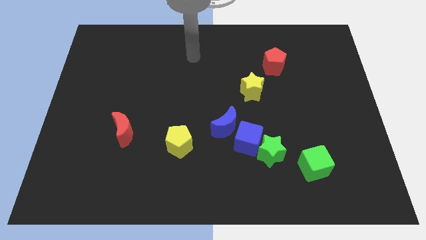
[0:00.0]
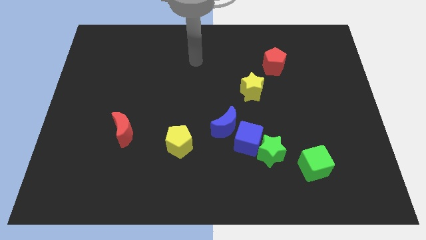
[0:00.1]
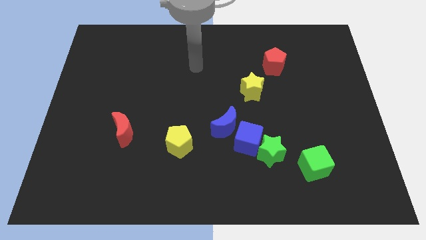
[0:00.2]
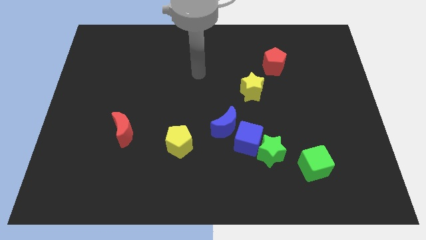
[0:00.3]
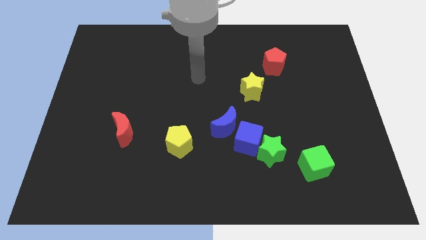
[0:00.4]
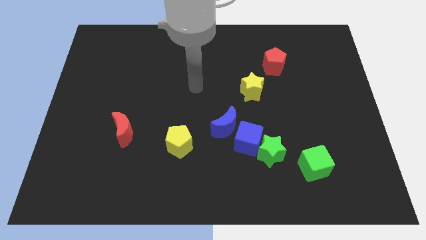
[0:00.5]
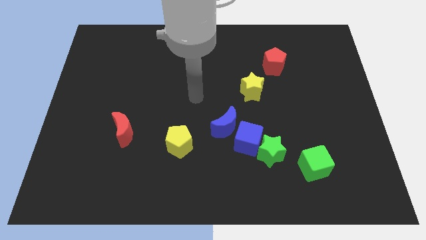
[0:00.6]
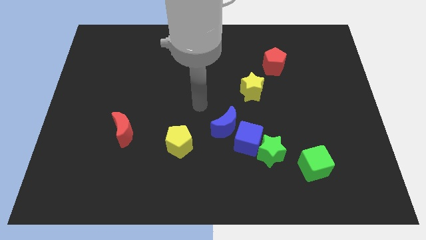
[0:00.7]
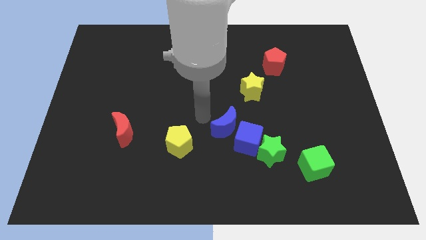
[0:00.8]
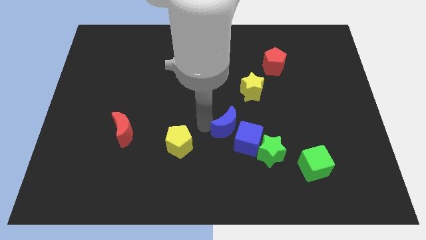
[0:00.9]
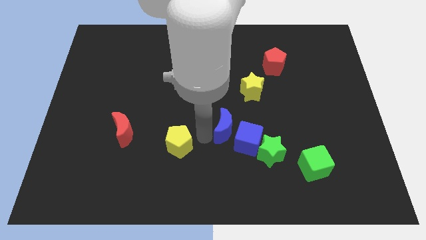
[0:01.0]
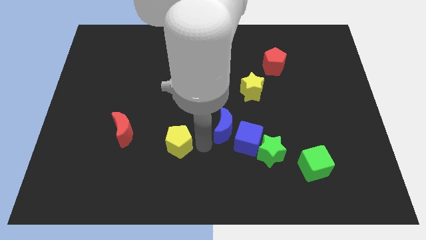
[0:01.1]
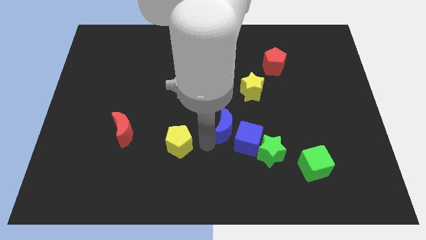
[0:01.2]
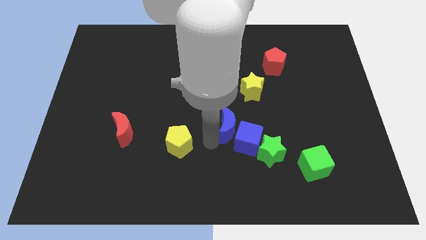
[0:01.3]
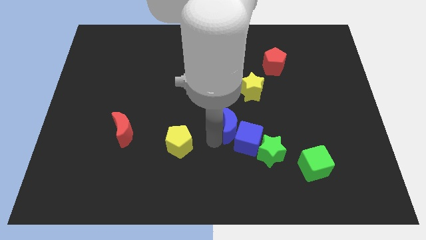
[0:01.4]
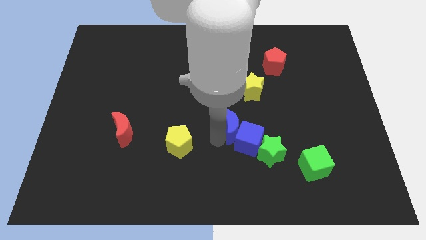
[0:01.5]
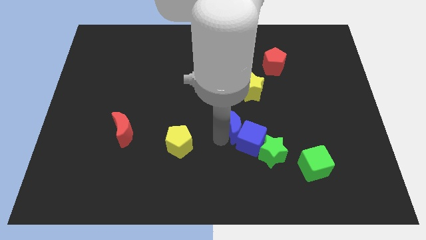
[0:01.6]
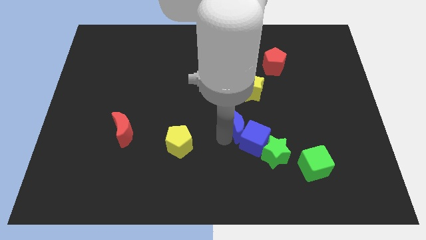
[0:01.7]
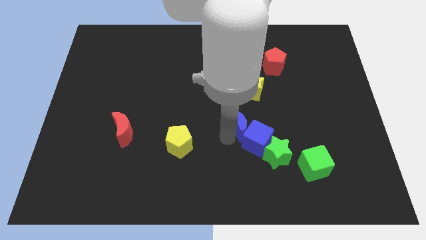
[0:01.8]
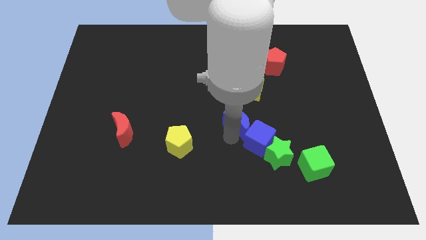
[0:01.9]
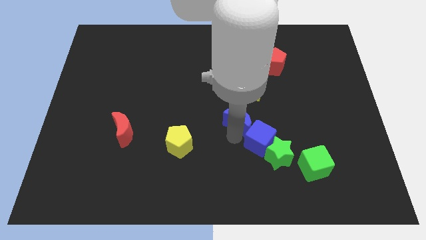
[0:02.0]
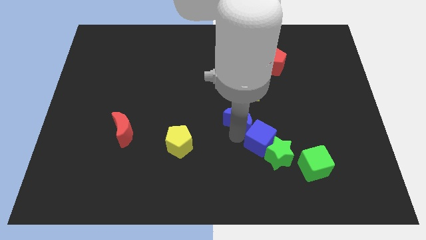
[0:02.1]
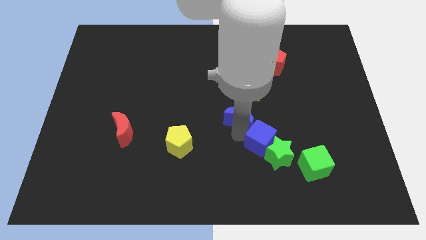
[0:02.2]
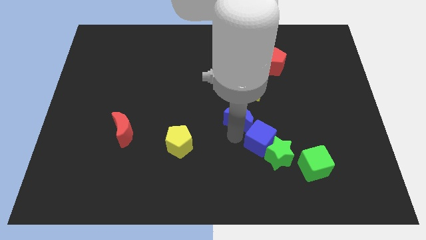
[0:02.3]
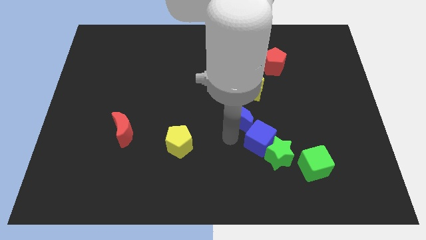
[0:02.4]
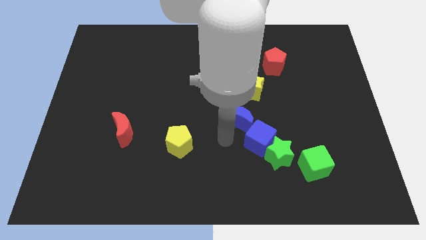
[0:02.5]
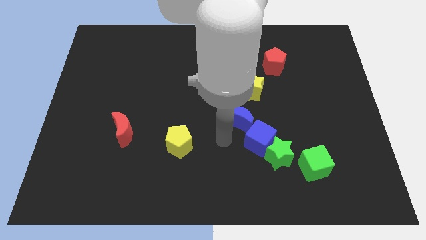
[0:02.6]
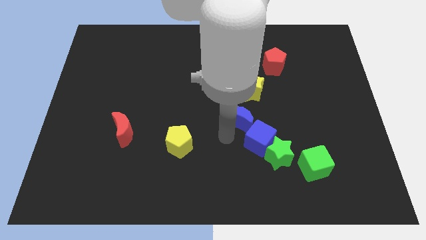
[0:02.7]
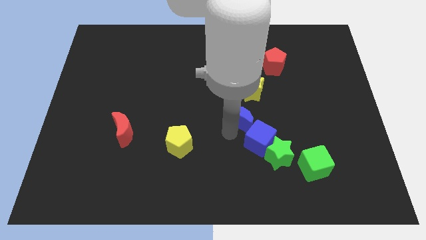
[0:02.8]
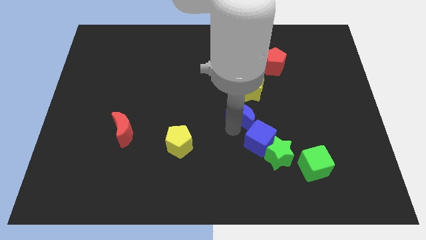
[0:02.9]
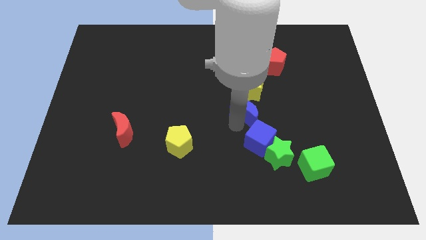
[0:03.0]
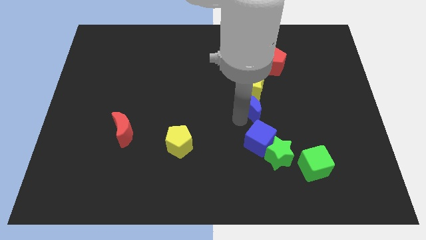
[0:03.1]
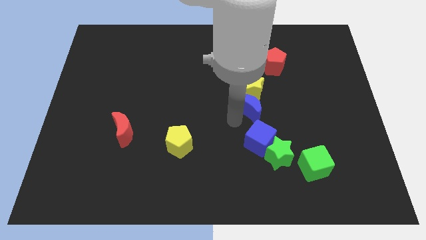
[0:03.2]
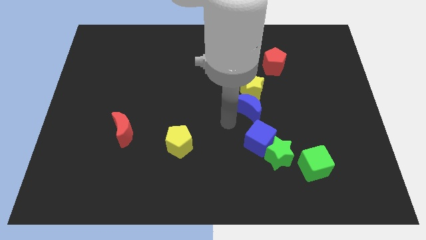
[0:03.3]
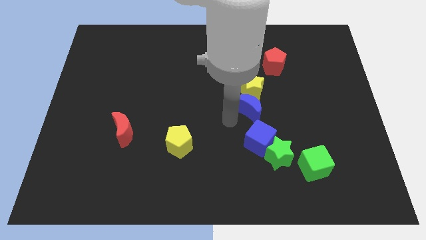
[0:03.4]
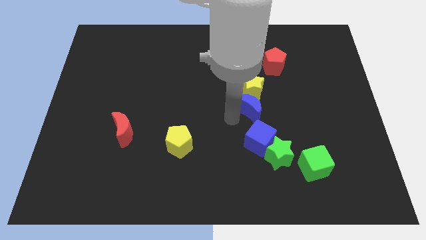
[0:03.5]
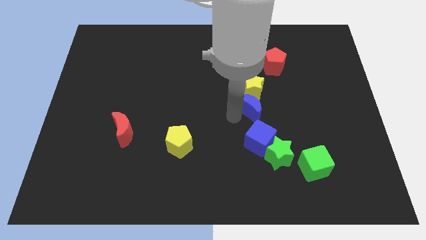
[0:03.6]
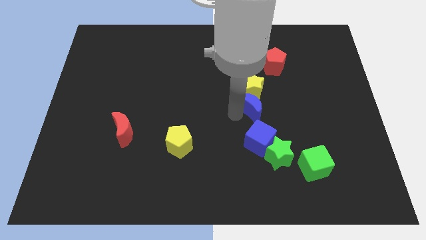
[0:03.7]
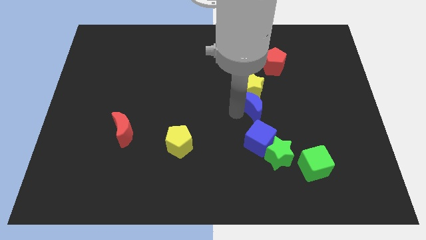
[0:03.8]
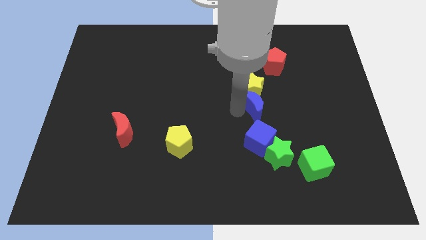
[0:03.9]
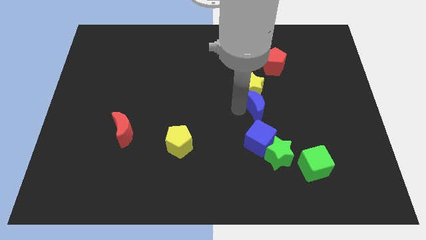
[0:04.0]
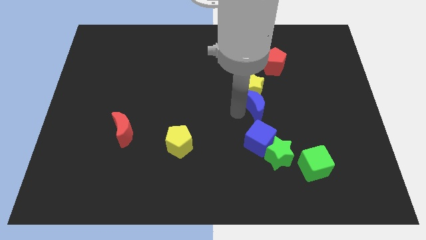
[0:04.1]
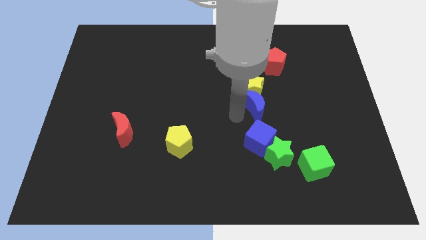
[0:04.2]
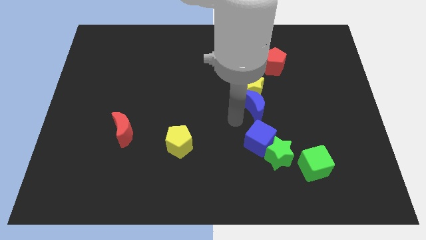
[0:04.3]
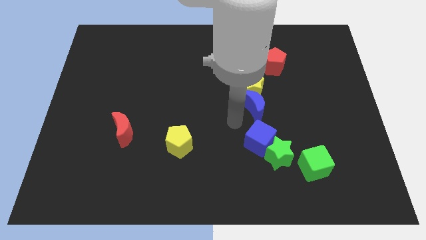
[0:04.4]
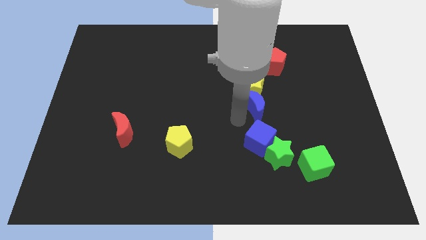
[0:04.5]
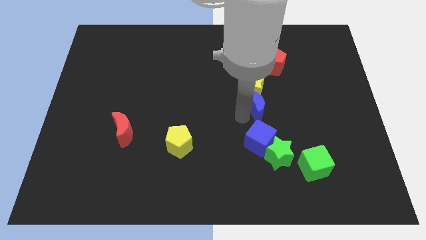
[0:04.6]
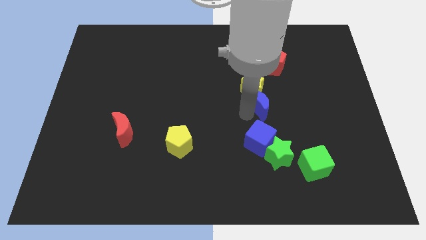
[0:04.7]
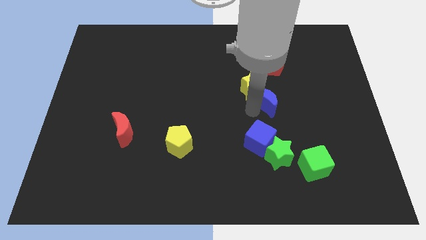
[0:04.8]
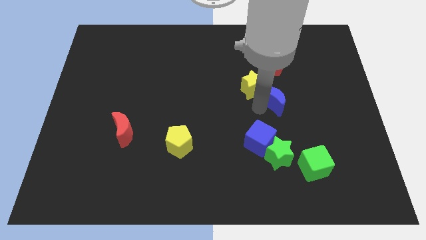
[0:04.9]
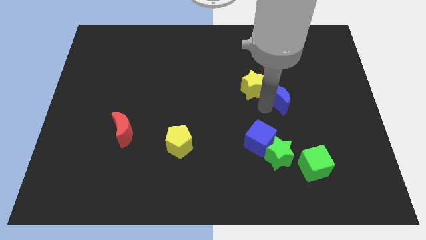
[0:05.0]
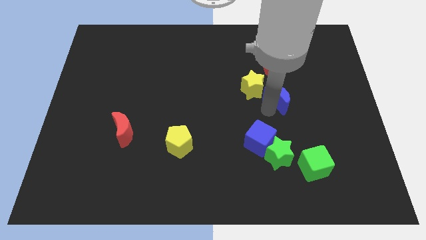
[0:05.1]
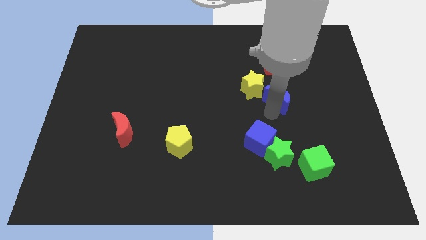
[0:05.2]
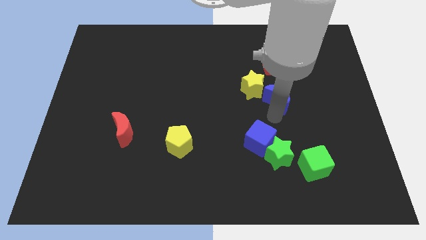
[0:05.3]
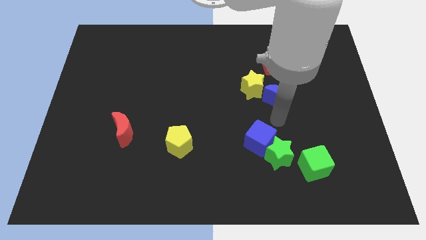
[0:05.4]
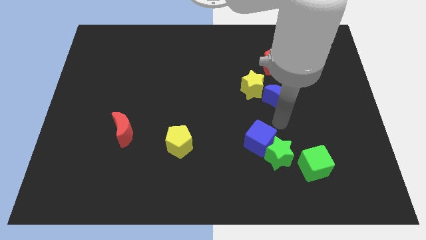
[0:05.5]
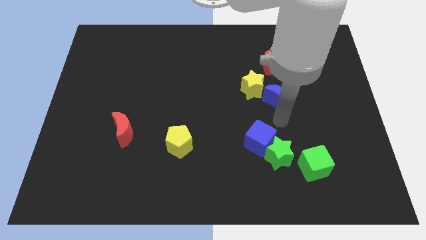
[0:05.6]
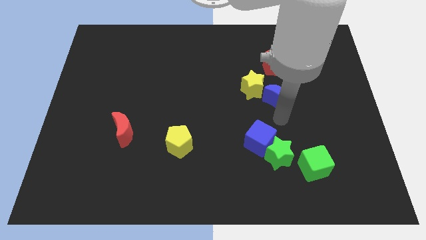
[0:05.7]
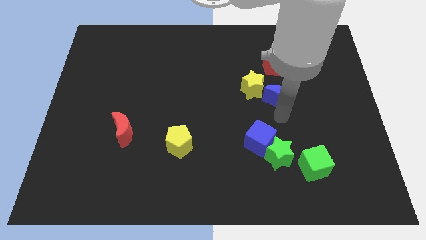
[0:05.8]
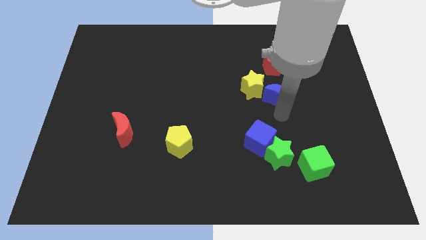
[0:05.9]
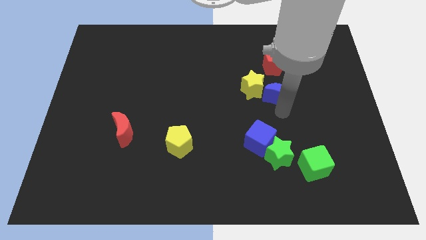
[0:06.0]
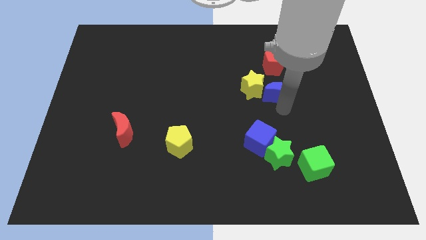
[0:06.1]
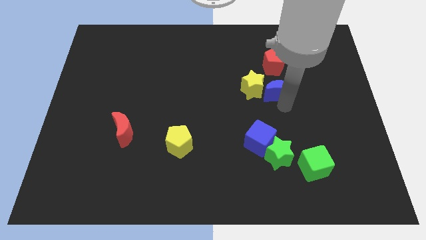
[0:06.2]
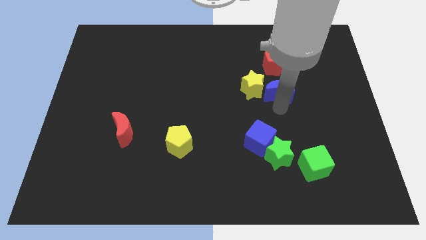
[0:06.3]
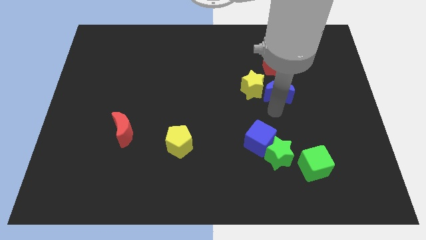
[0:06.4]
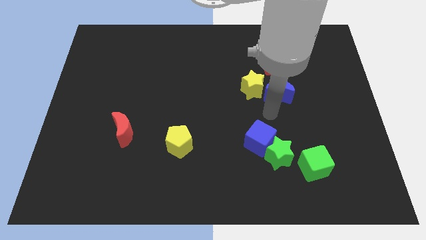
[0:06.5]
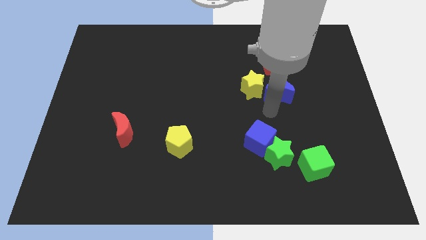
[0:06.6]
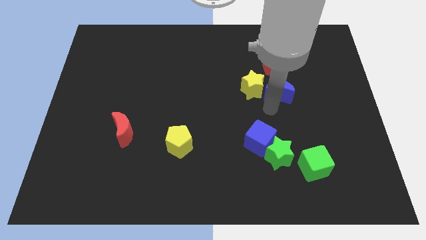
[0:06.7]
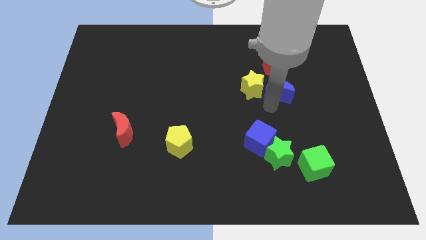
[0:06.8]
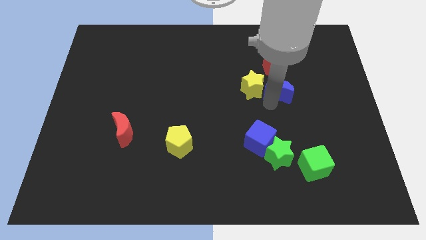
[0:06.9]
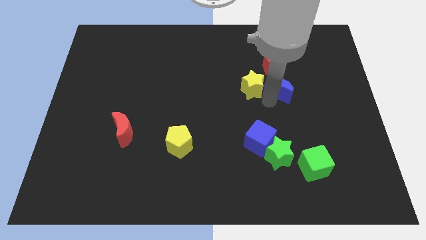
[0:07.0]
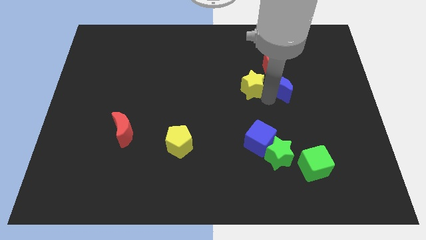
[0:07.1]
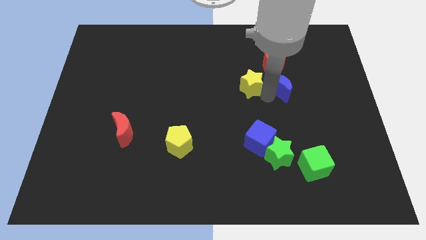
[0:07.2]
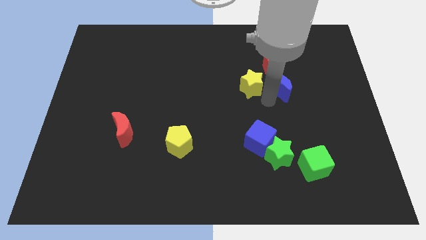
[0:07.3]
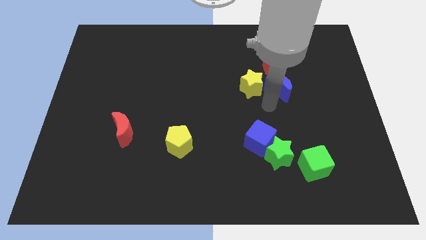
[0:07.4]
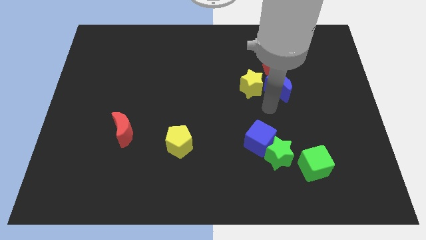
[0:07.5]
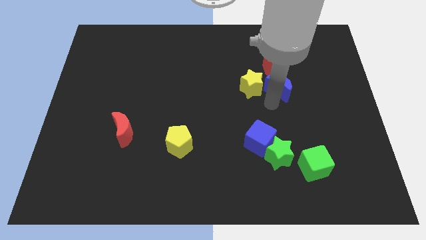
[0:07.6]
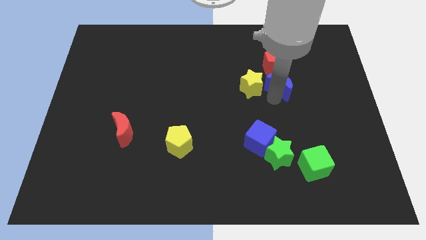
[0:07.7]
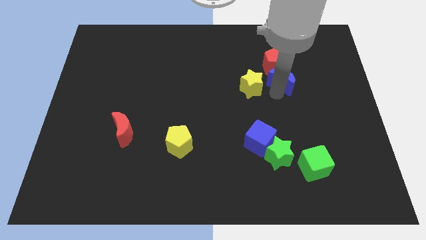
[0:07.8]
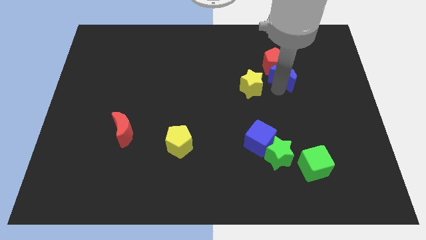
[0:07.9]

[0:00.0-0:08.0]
slide the blue moon up and then to the right
